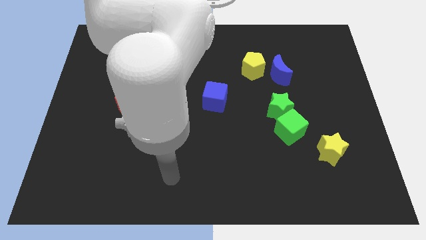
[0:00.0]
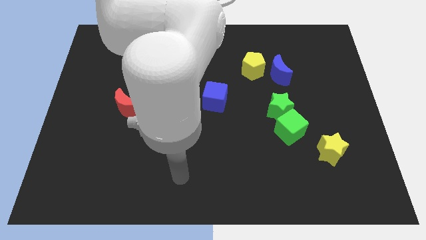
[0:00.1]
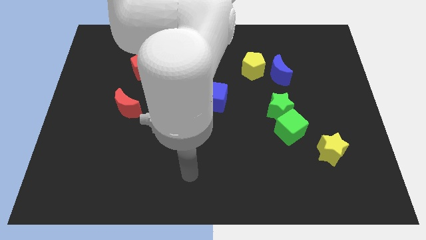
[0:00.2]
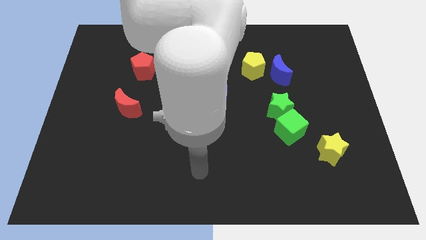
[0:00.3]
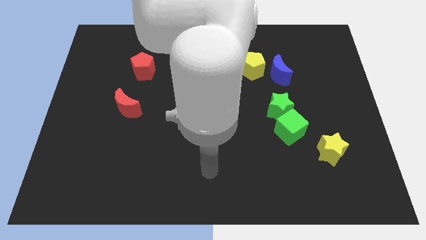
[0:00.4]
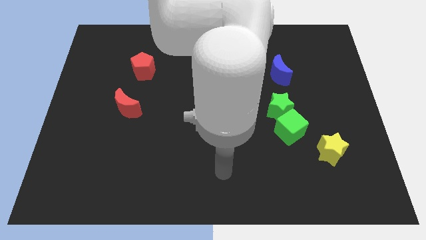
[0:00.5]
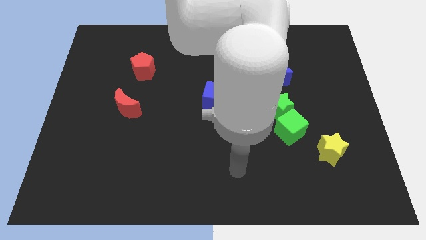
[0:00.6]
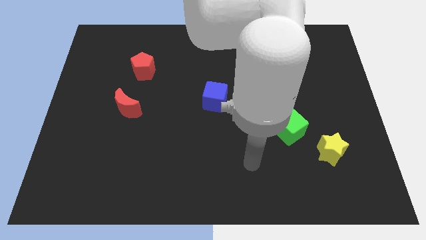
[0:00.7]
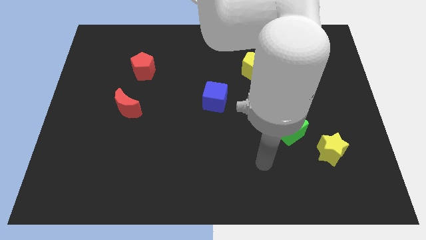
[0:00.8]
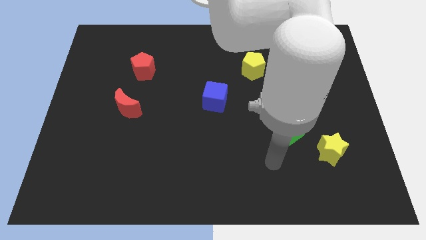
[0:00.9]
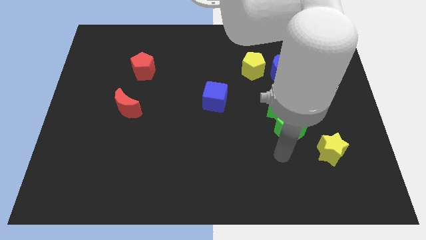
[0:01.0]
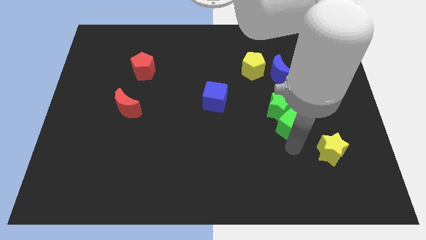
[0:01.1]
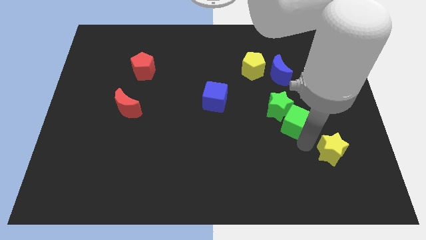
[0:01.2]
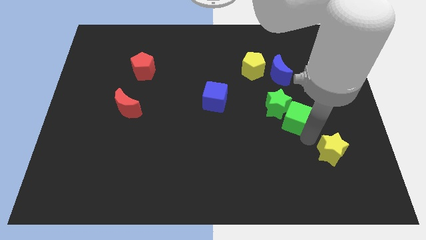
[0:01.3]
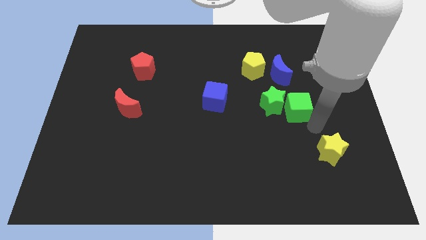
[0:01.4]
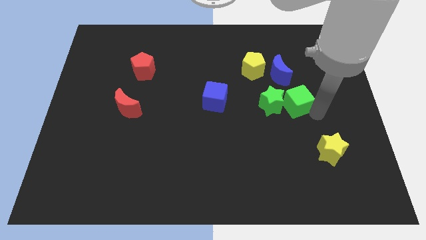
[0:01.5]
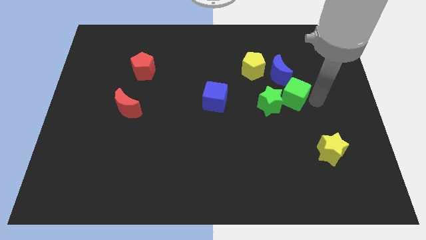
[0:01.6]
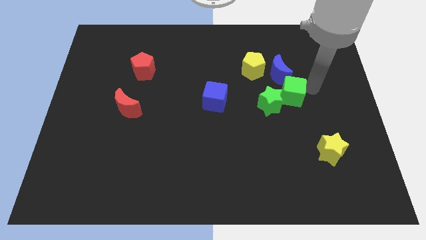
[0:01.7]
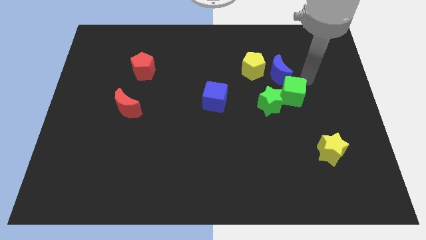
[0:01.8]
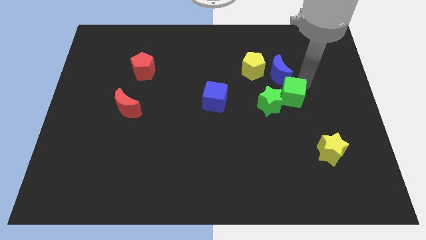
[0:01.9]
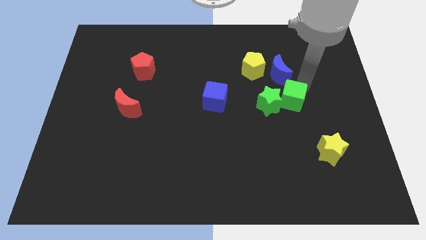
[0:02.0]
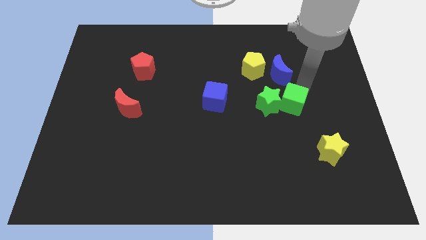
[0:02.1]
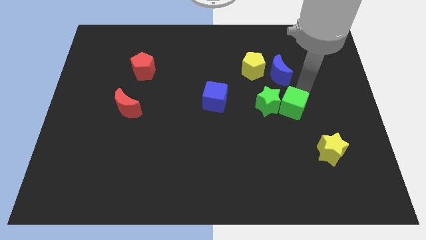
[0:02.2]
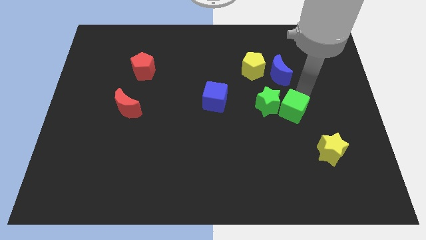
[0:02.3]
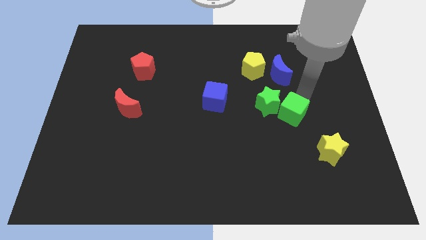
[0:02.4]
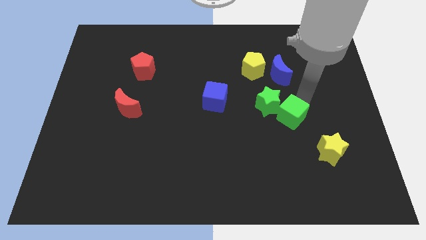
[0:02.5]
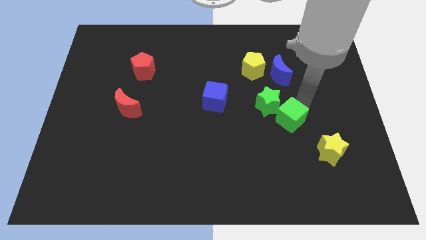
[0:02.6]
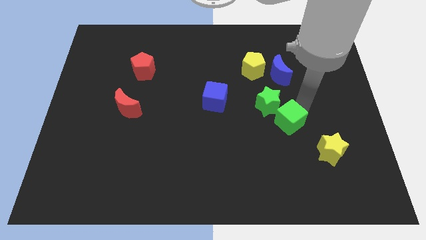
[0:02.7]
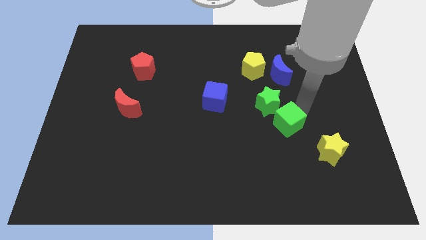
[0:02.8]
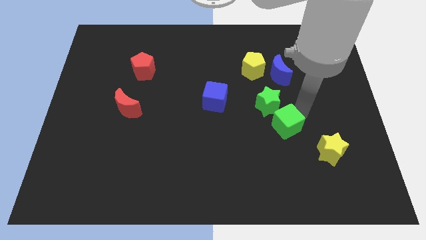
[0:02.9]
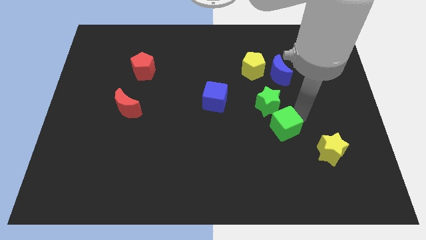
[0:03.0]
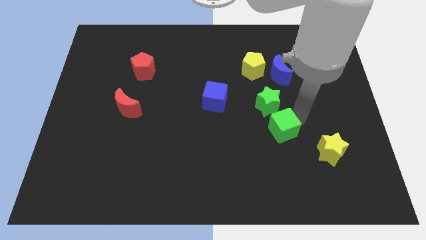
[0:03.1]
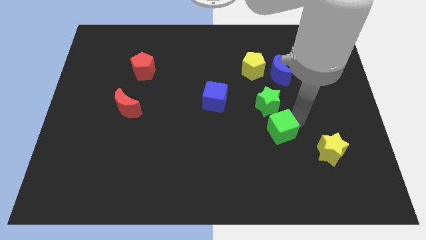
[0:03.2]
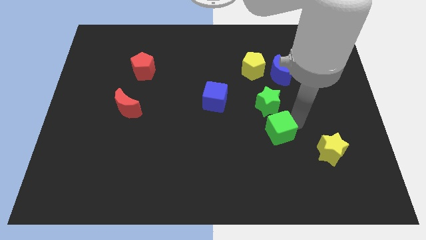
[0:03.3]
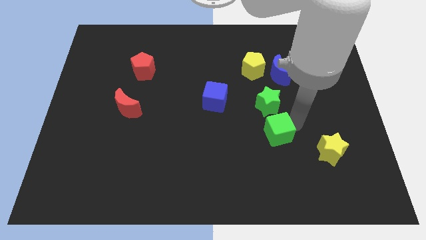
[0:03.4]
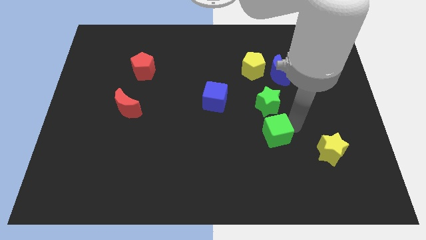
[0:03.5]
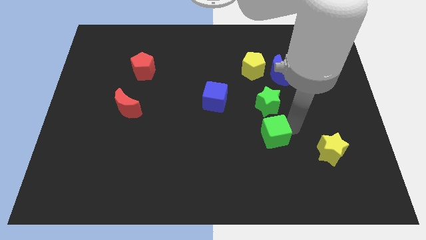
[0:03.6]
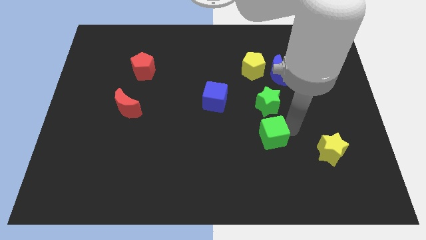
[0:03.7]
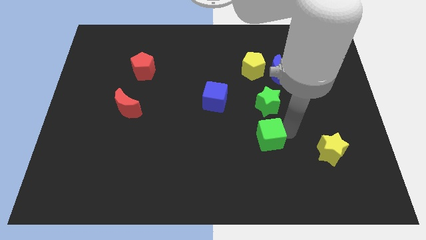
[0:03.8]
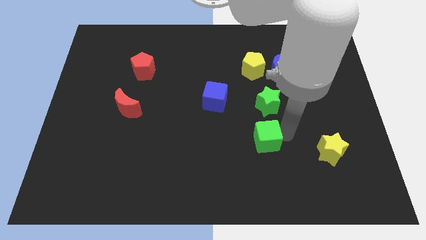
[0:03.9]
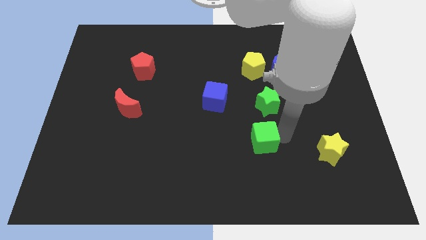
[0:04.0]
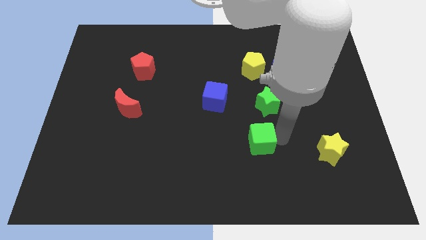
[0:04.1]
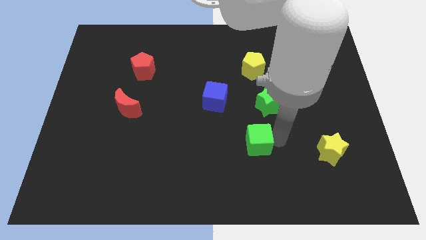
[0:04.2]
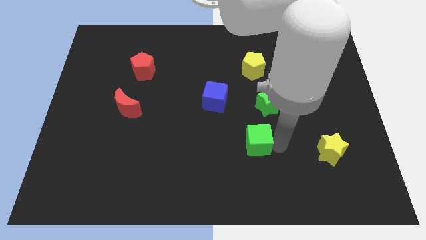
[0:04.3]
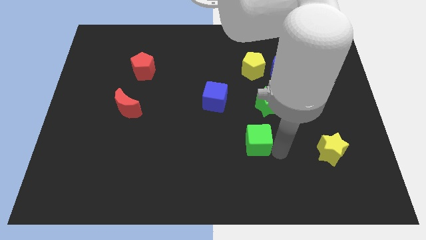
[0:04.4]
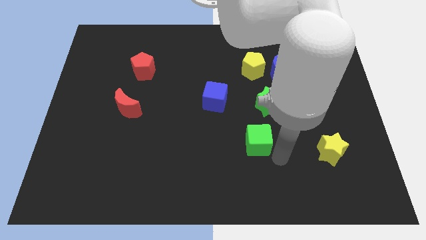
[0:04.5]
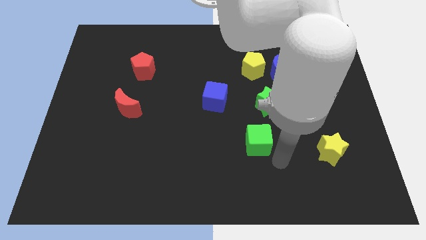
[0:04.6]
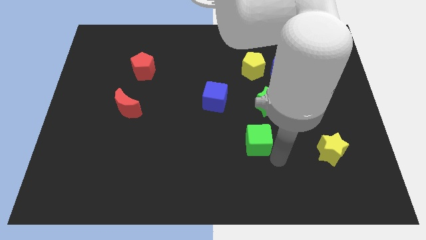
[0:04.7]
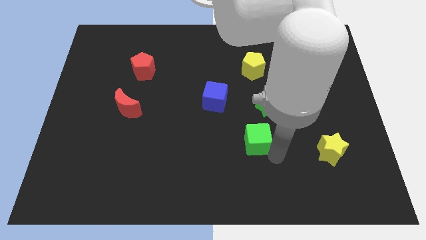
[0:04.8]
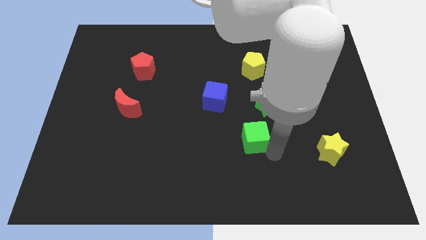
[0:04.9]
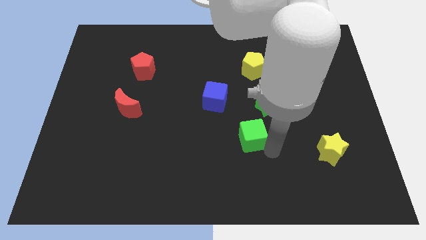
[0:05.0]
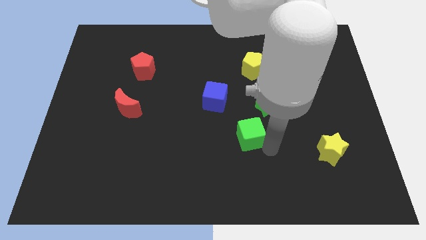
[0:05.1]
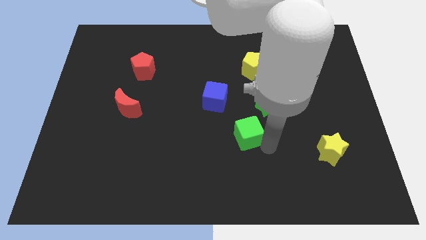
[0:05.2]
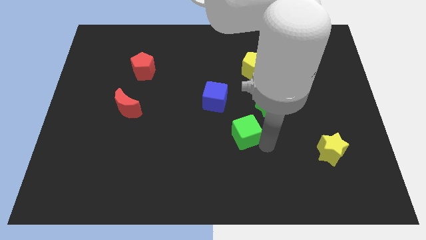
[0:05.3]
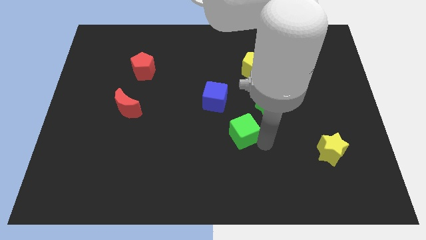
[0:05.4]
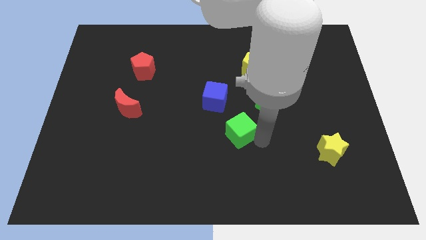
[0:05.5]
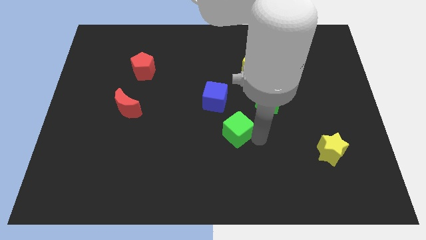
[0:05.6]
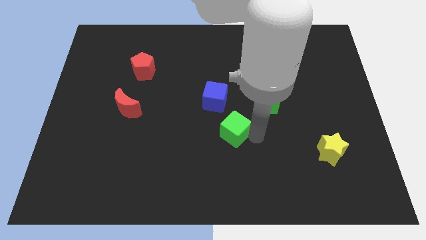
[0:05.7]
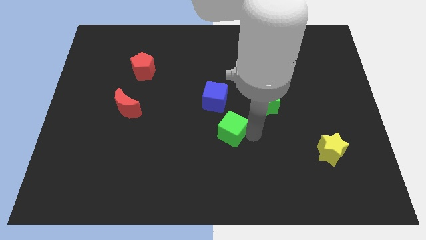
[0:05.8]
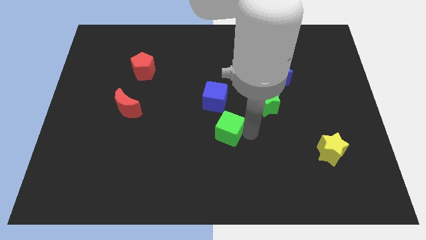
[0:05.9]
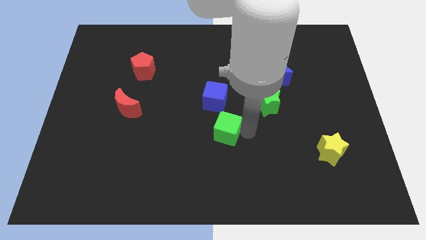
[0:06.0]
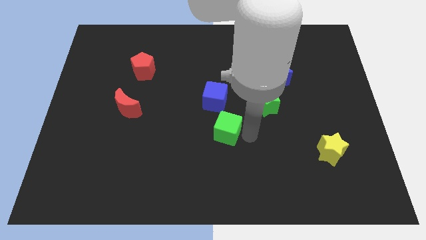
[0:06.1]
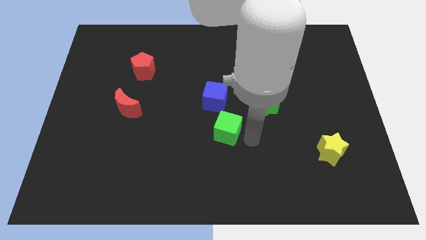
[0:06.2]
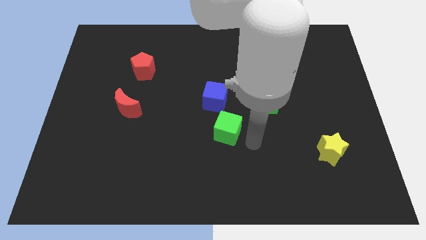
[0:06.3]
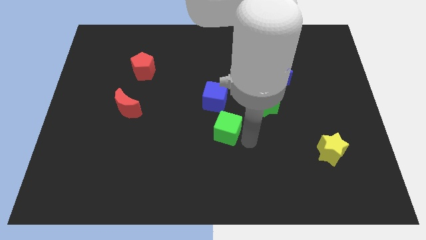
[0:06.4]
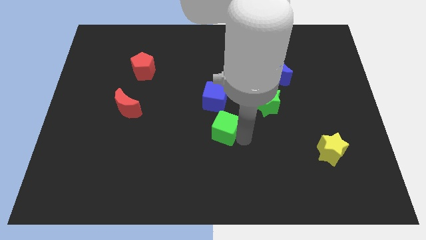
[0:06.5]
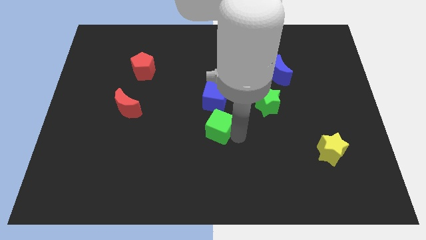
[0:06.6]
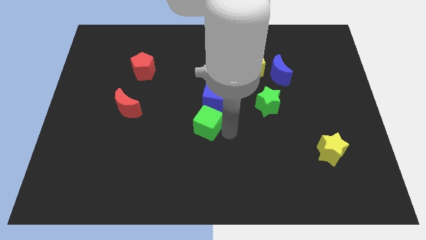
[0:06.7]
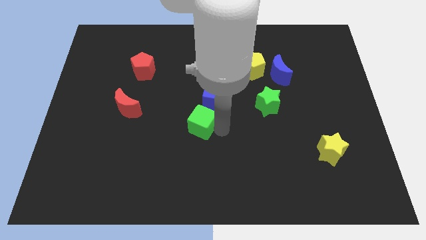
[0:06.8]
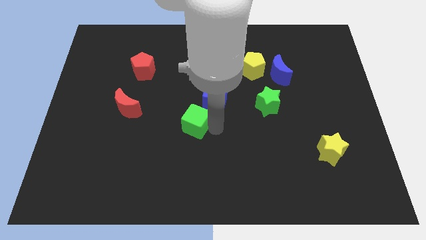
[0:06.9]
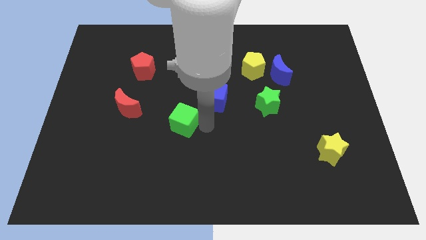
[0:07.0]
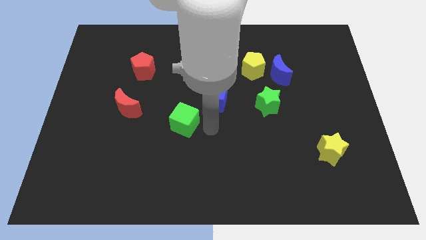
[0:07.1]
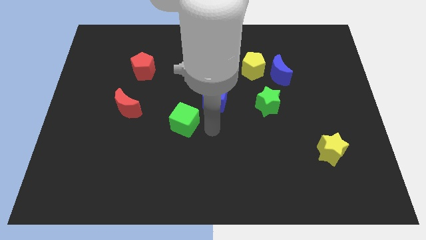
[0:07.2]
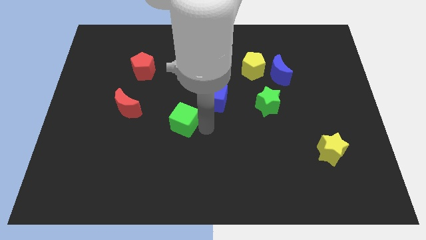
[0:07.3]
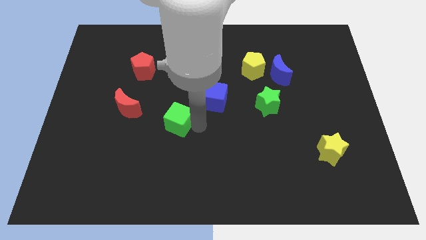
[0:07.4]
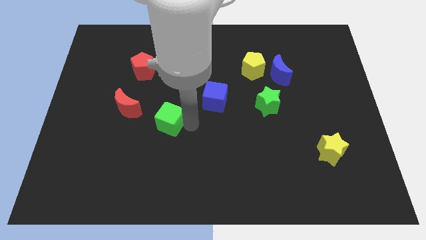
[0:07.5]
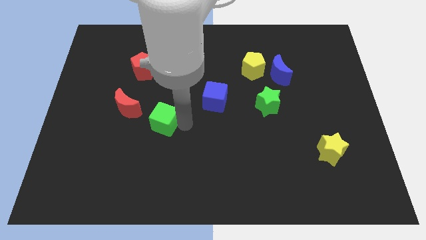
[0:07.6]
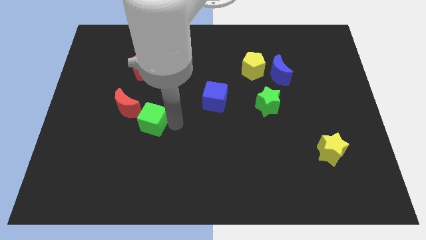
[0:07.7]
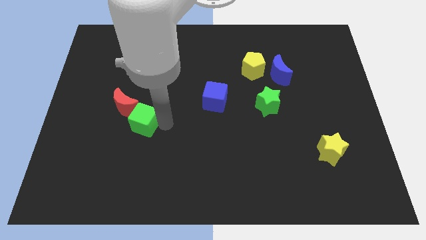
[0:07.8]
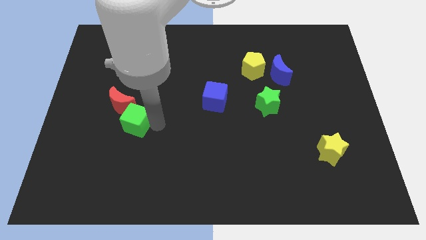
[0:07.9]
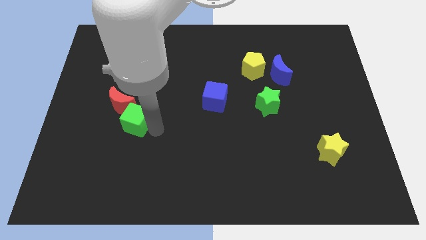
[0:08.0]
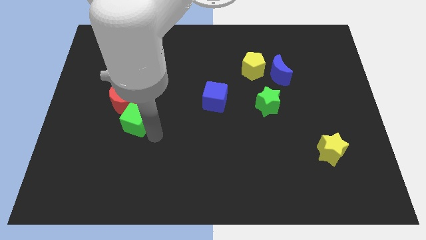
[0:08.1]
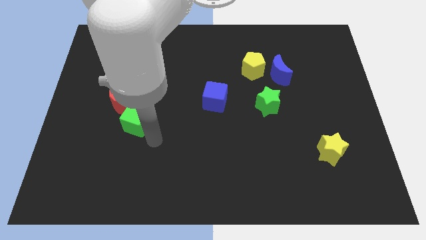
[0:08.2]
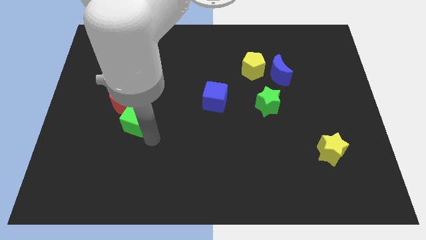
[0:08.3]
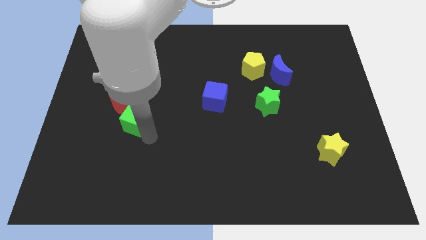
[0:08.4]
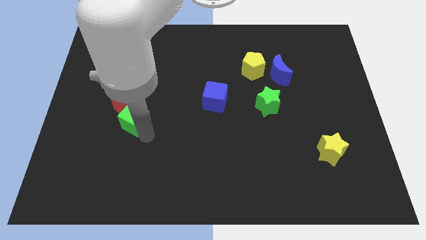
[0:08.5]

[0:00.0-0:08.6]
put the green cube towards the red moon
